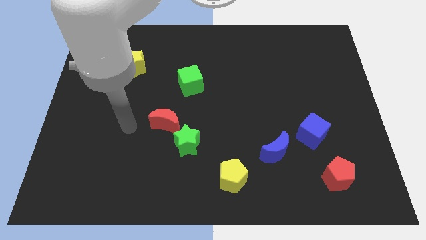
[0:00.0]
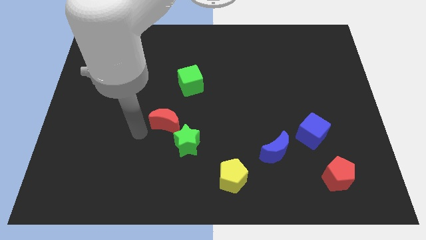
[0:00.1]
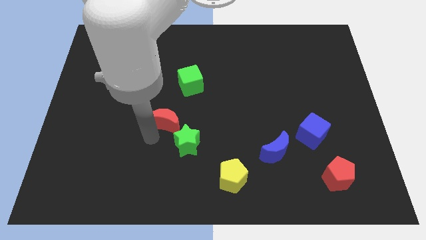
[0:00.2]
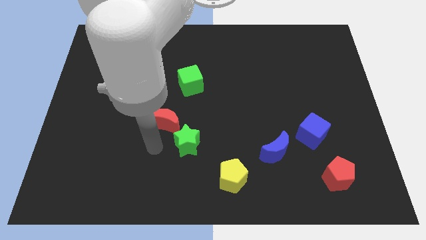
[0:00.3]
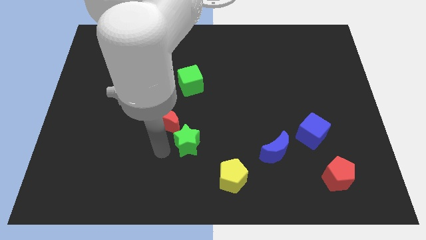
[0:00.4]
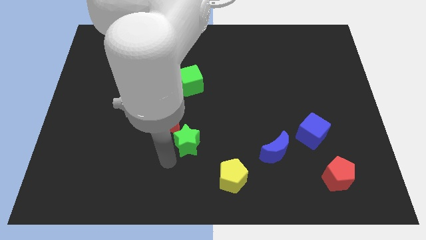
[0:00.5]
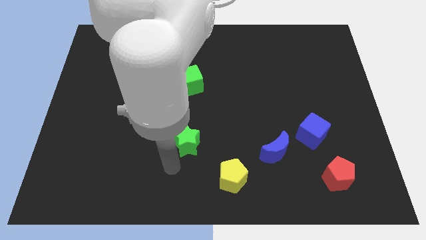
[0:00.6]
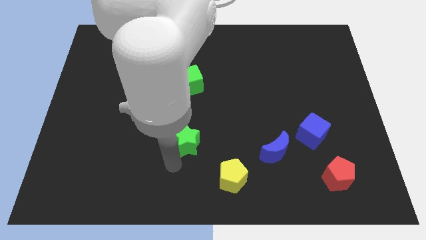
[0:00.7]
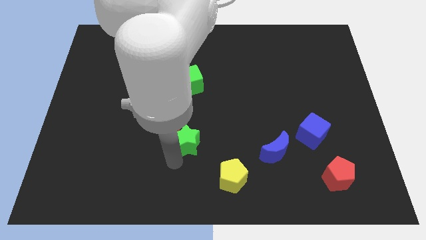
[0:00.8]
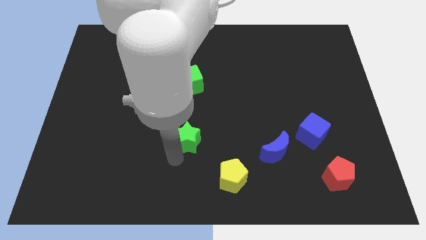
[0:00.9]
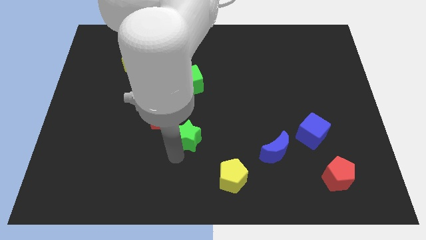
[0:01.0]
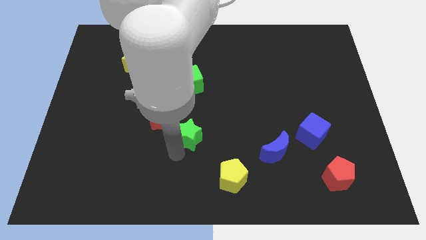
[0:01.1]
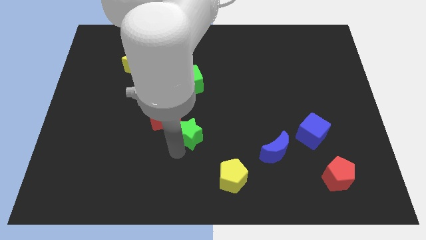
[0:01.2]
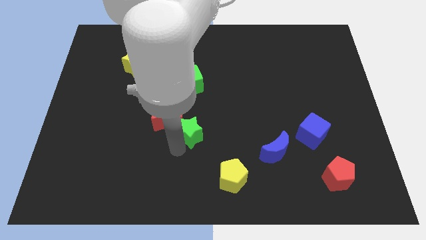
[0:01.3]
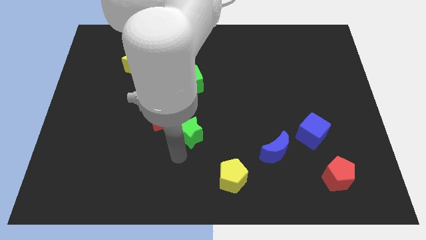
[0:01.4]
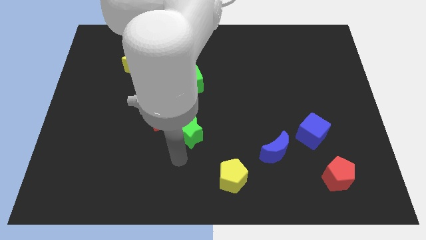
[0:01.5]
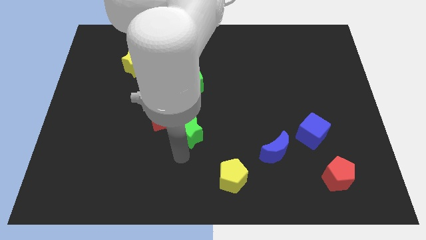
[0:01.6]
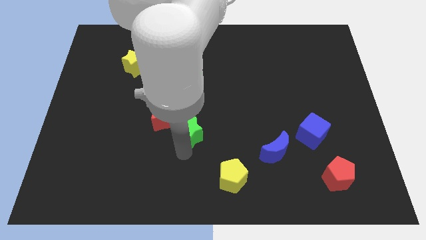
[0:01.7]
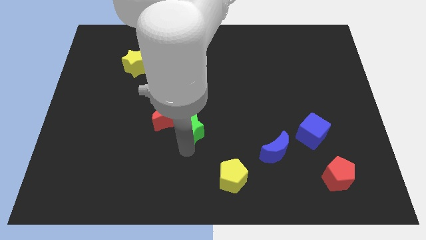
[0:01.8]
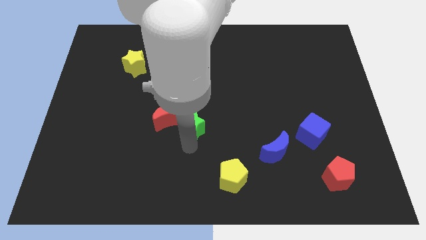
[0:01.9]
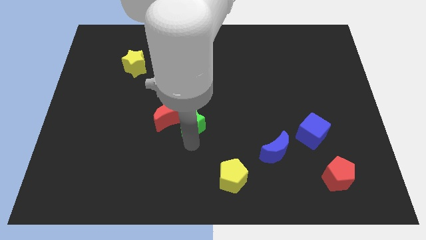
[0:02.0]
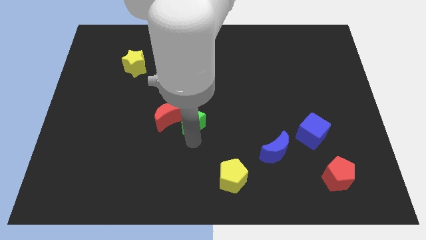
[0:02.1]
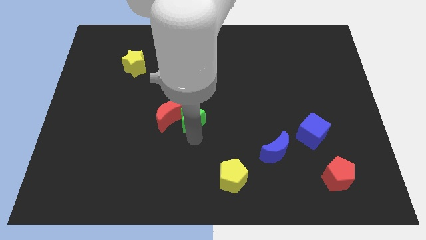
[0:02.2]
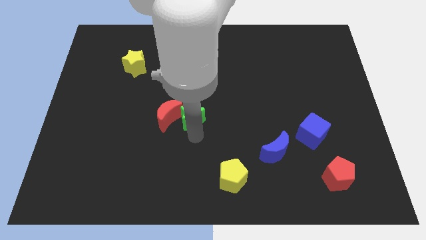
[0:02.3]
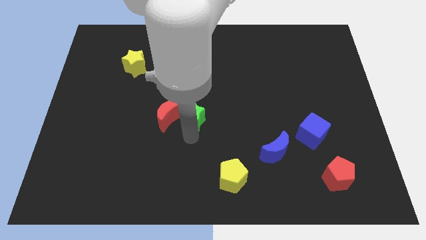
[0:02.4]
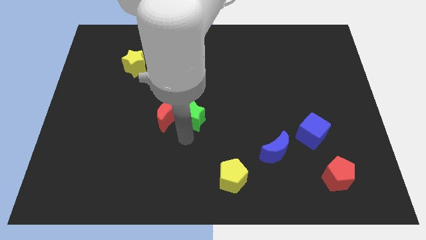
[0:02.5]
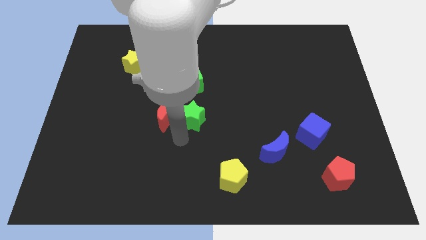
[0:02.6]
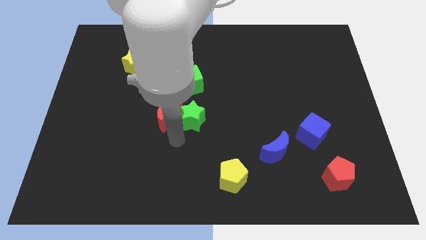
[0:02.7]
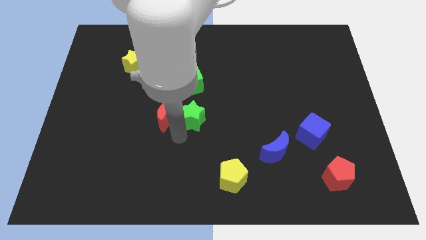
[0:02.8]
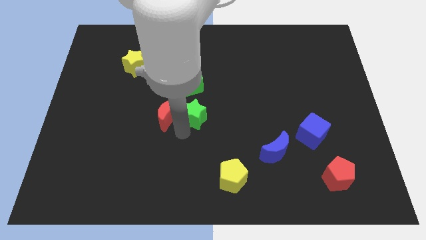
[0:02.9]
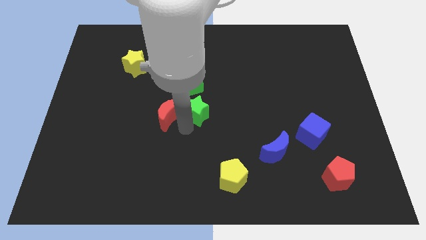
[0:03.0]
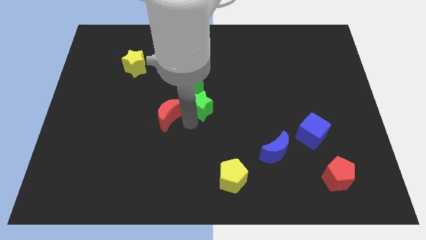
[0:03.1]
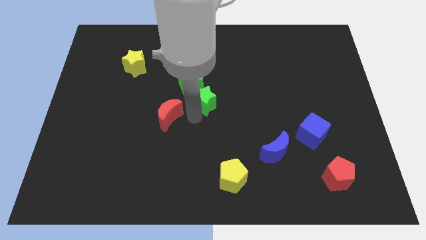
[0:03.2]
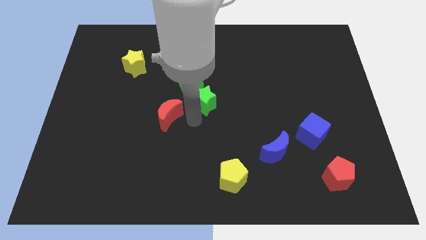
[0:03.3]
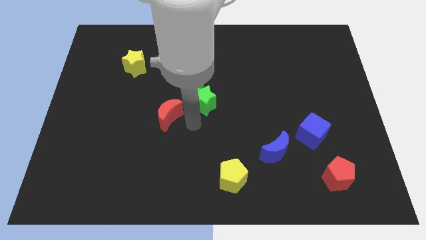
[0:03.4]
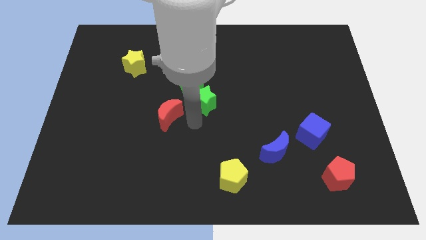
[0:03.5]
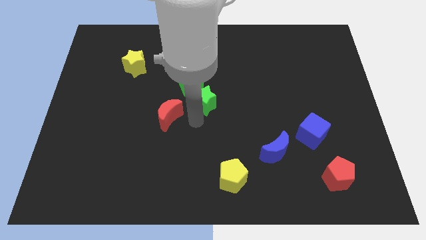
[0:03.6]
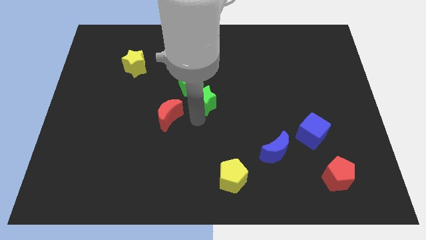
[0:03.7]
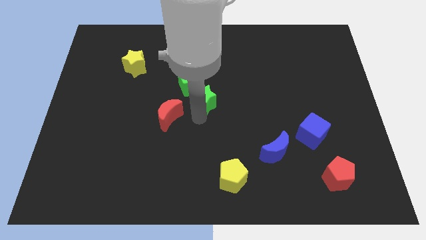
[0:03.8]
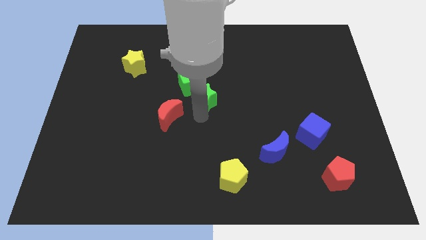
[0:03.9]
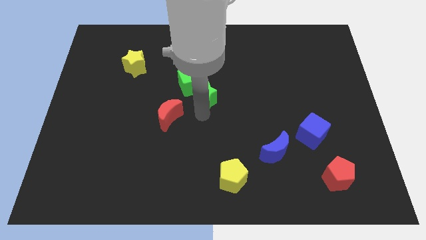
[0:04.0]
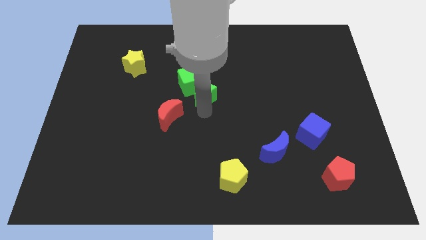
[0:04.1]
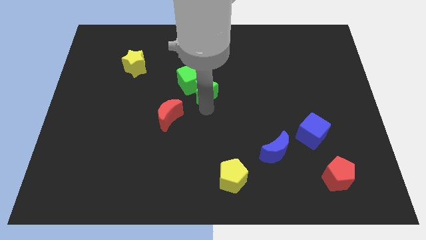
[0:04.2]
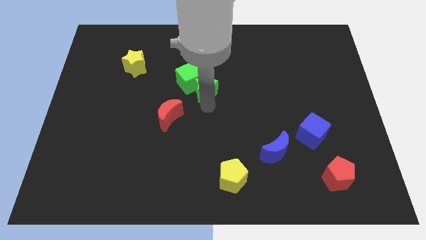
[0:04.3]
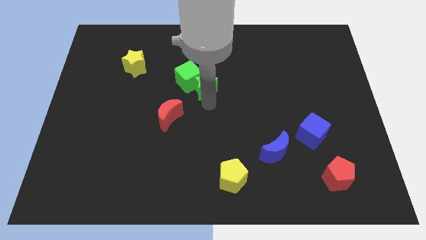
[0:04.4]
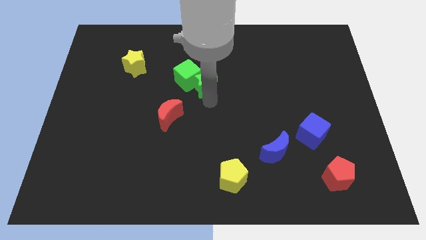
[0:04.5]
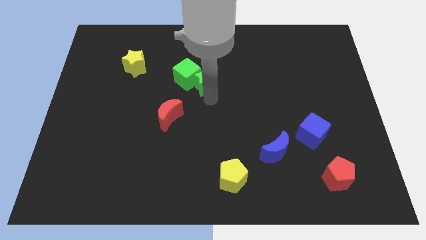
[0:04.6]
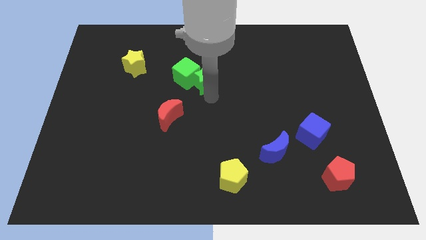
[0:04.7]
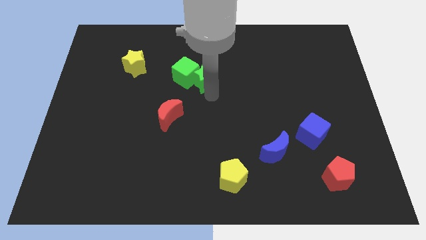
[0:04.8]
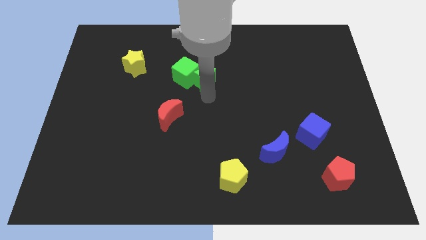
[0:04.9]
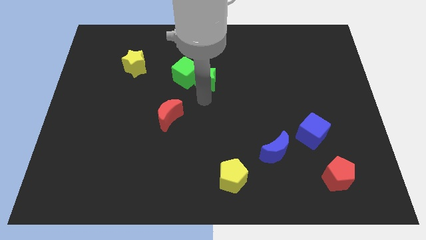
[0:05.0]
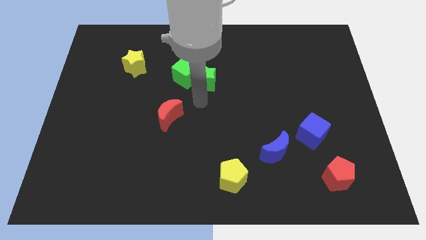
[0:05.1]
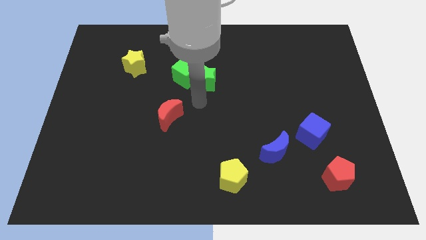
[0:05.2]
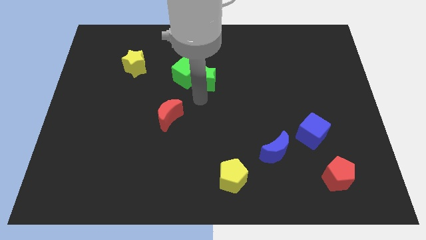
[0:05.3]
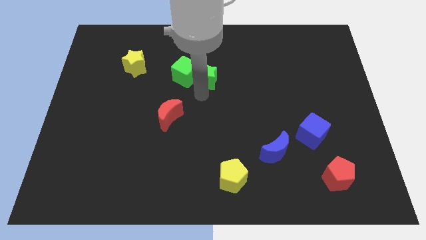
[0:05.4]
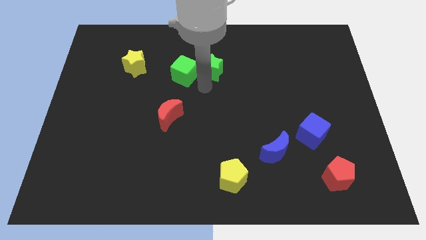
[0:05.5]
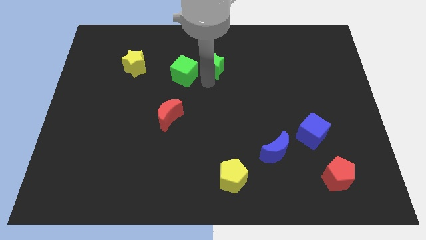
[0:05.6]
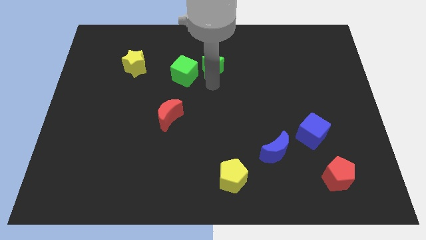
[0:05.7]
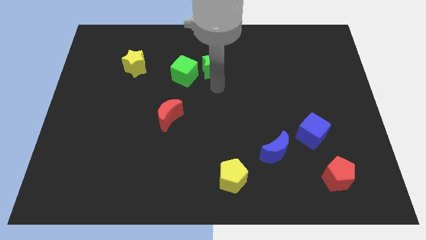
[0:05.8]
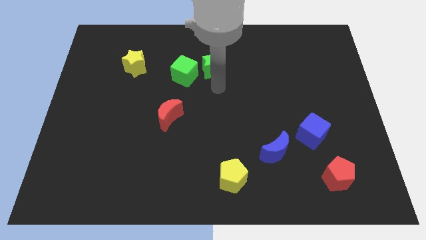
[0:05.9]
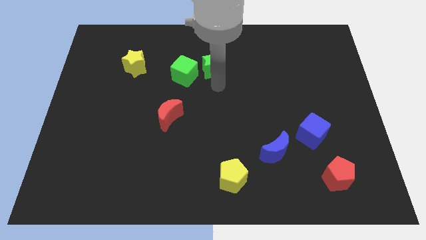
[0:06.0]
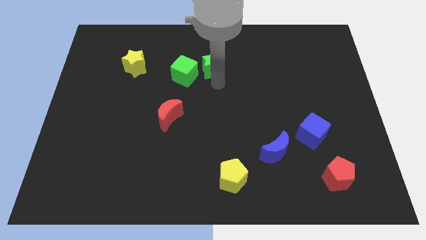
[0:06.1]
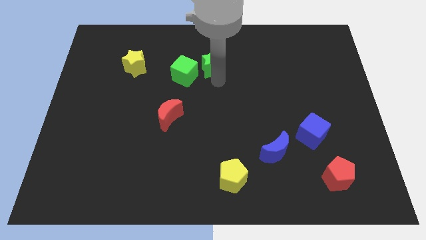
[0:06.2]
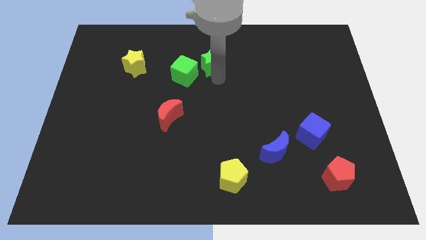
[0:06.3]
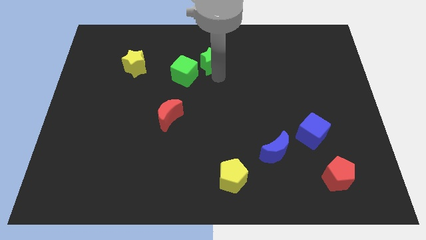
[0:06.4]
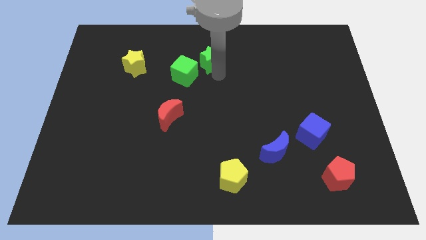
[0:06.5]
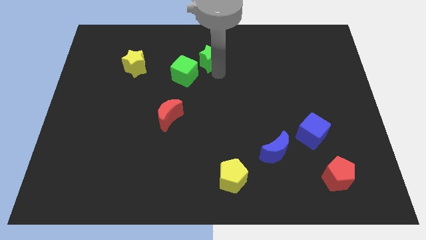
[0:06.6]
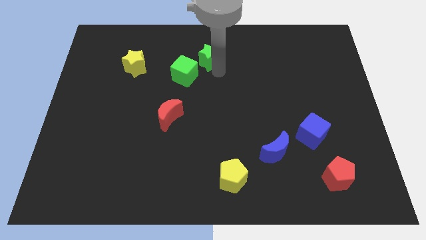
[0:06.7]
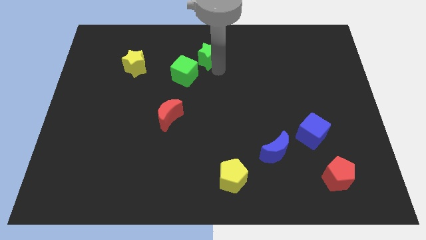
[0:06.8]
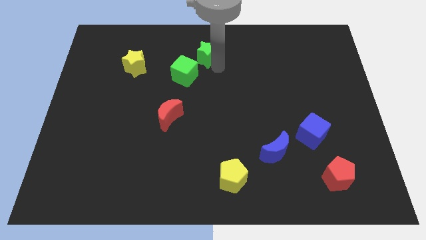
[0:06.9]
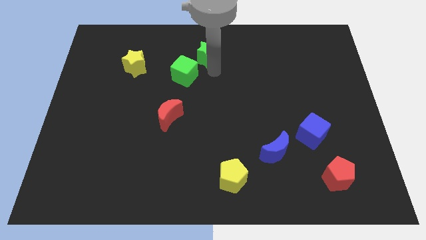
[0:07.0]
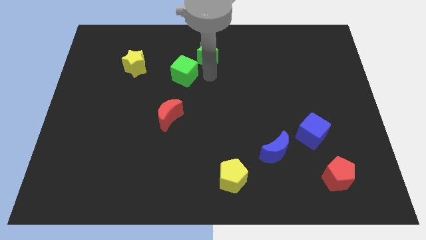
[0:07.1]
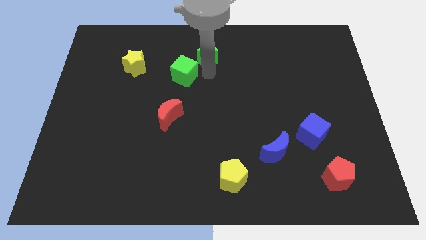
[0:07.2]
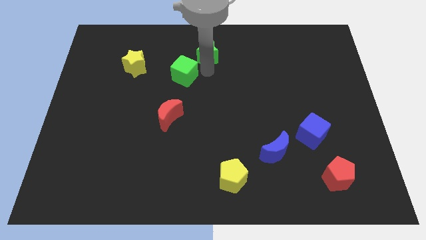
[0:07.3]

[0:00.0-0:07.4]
put the green star to the towards your base
